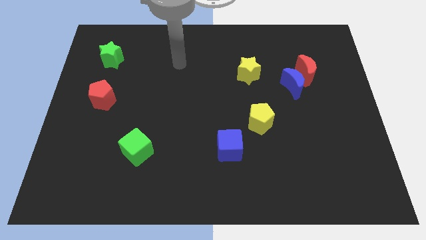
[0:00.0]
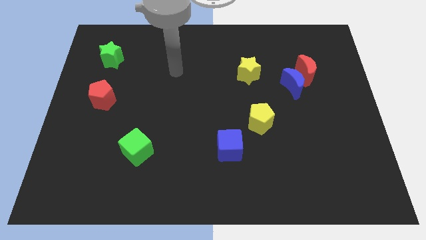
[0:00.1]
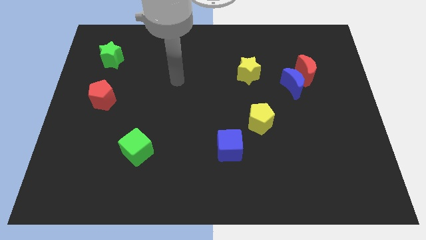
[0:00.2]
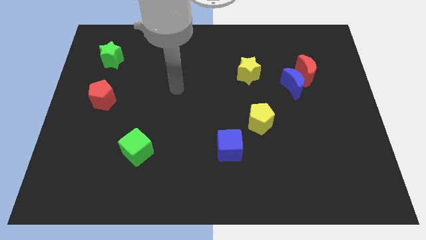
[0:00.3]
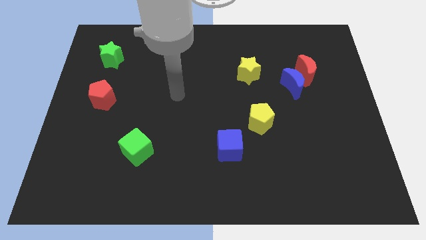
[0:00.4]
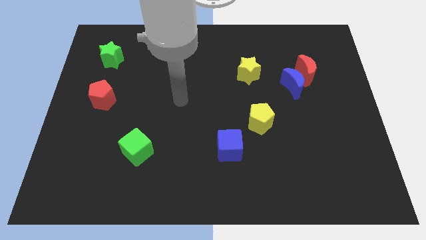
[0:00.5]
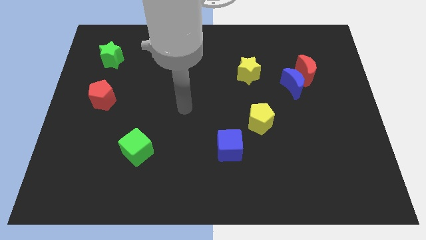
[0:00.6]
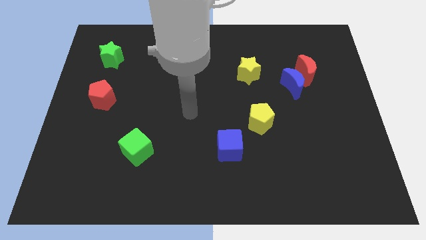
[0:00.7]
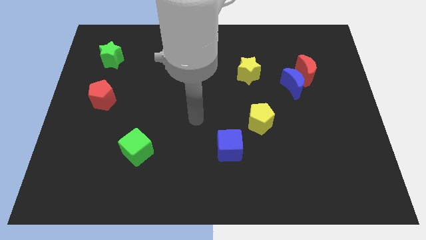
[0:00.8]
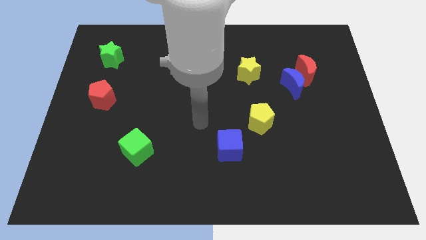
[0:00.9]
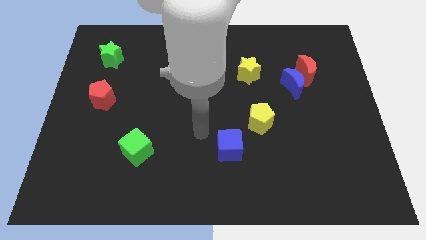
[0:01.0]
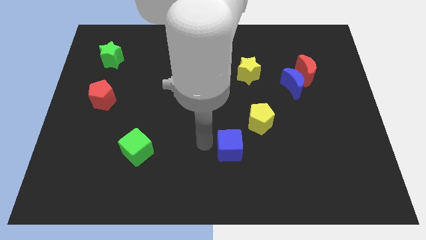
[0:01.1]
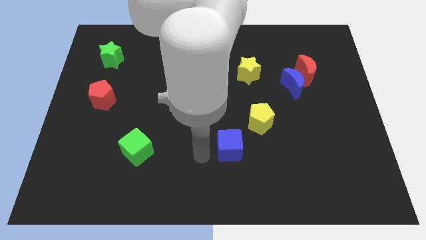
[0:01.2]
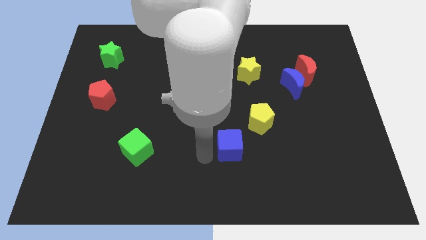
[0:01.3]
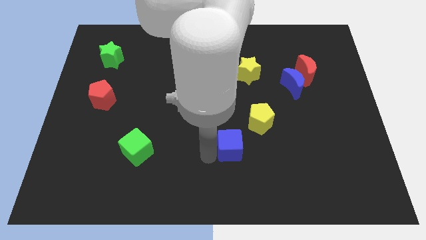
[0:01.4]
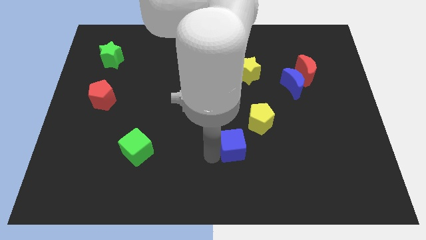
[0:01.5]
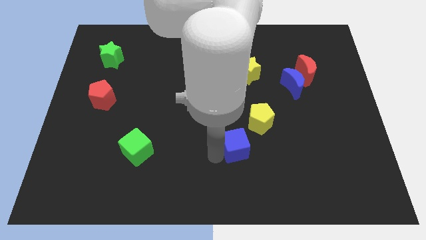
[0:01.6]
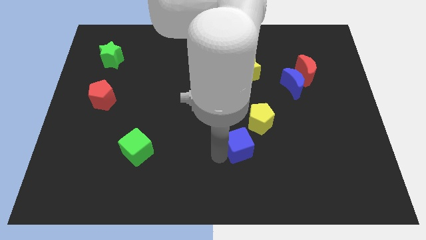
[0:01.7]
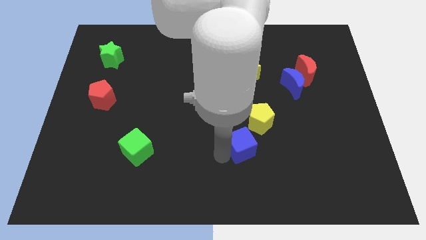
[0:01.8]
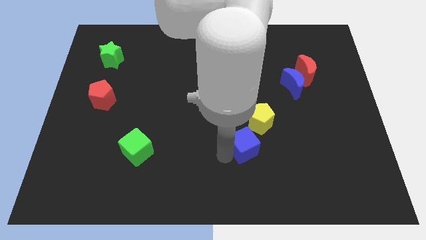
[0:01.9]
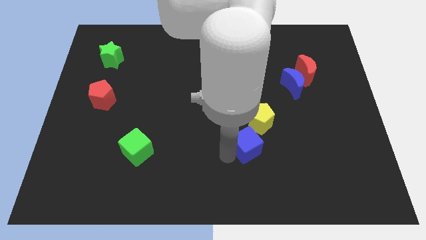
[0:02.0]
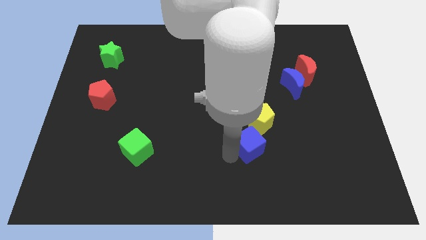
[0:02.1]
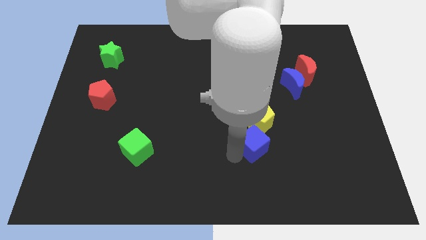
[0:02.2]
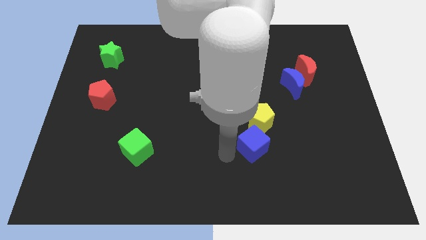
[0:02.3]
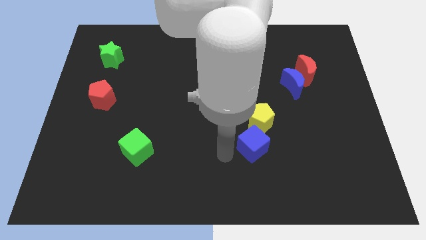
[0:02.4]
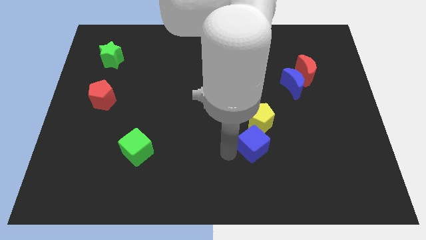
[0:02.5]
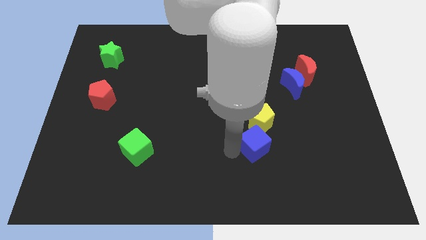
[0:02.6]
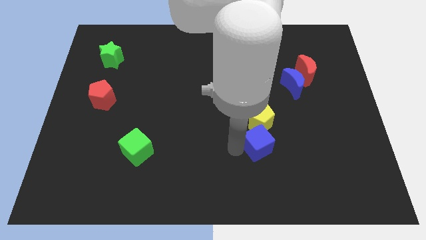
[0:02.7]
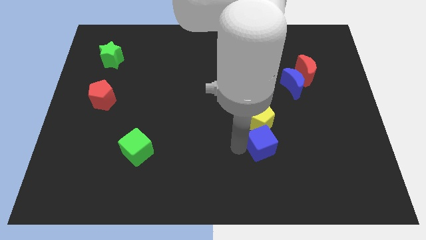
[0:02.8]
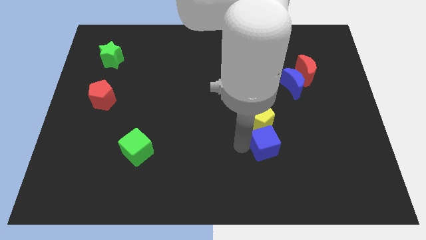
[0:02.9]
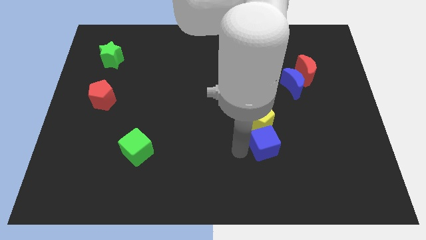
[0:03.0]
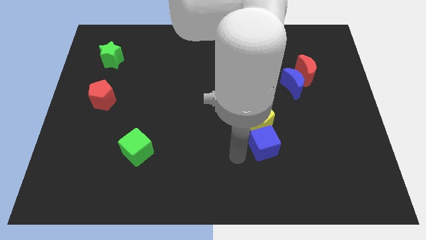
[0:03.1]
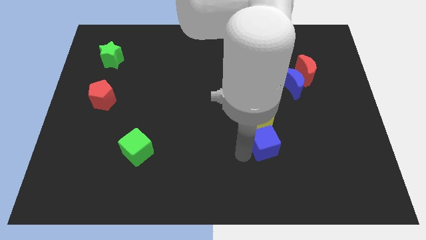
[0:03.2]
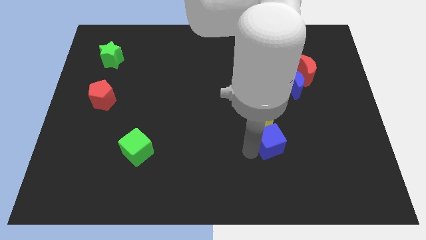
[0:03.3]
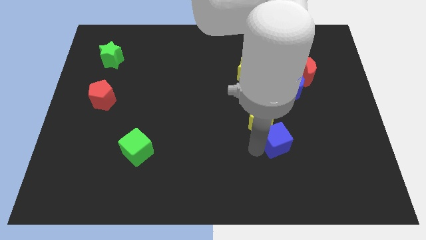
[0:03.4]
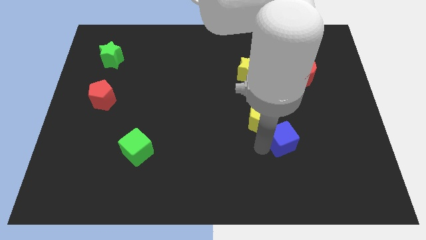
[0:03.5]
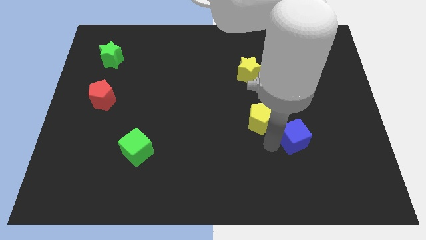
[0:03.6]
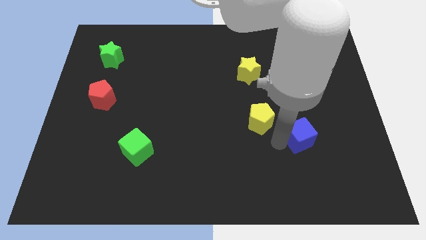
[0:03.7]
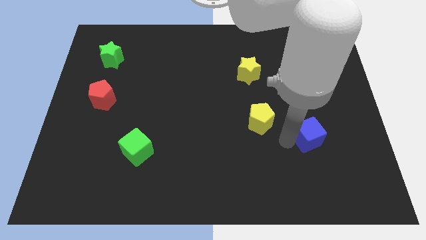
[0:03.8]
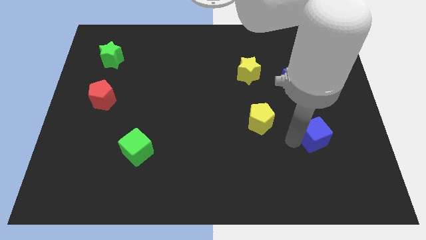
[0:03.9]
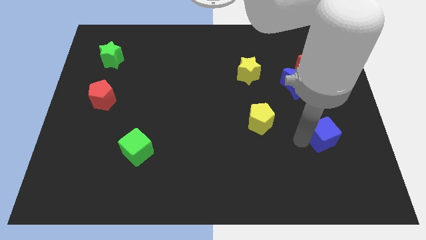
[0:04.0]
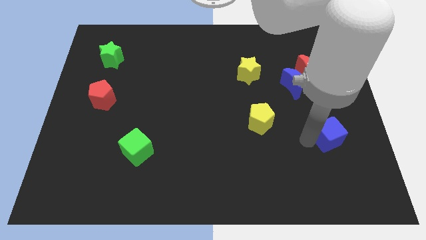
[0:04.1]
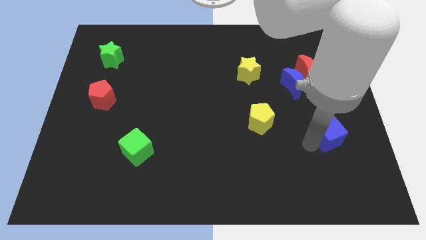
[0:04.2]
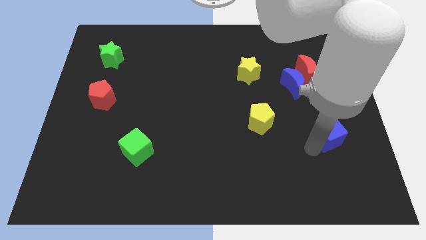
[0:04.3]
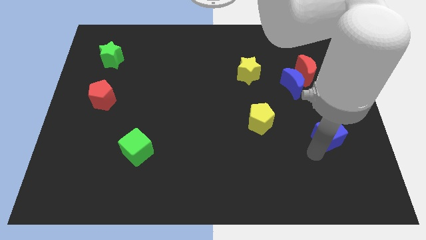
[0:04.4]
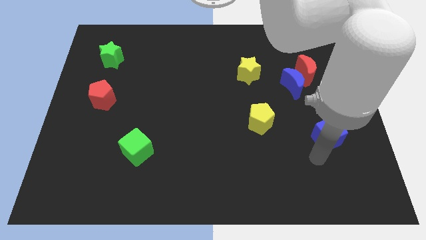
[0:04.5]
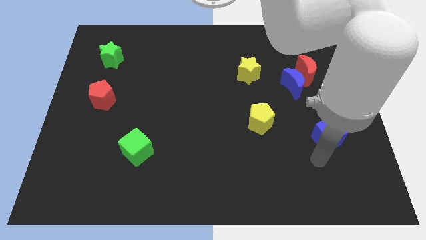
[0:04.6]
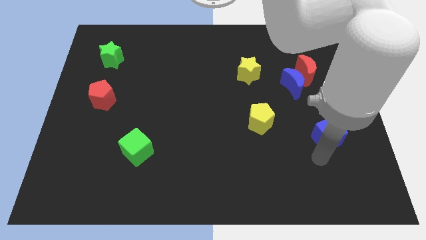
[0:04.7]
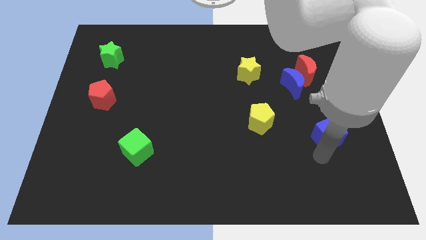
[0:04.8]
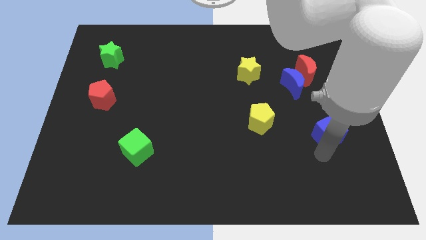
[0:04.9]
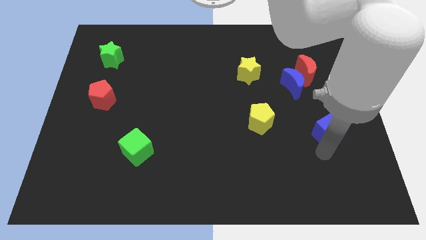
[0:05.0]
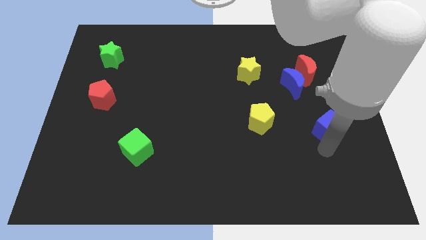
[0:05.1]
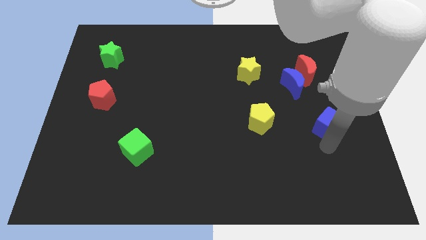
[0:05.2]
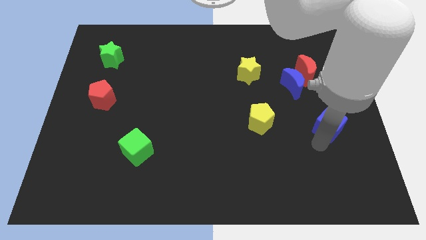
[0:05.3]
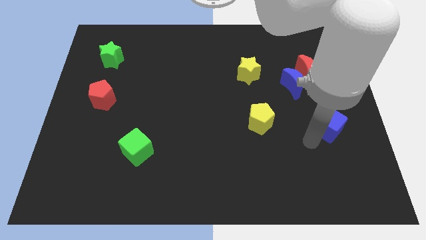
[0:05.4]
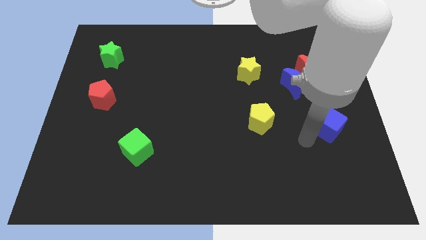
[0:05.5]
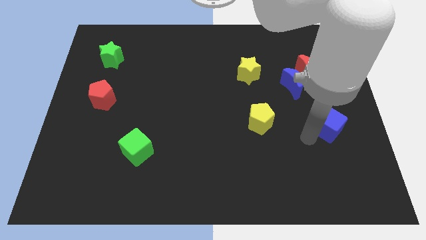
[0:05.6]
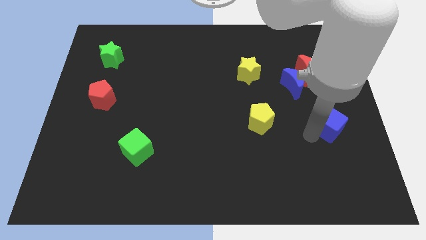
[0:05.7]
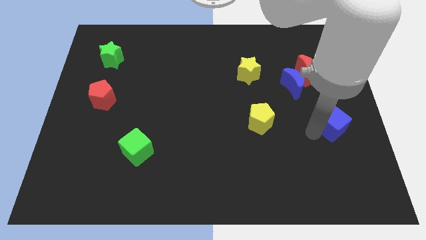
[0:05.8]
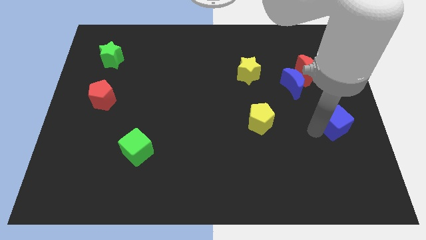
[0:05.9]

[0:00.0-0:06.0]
push the blue cube to the center right

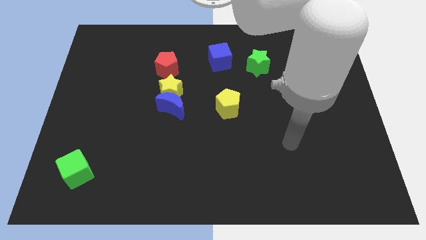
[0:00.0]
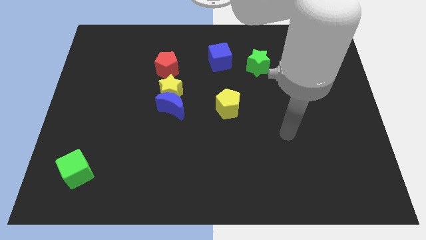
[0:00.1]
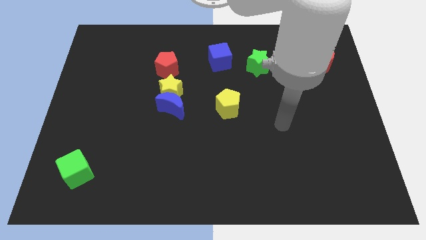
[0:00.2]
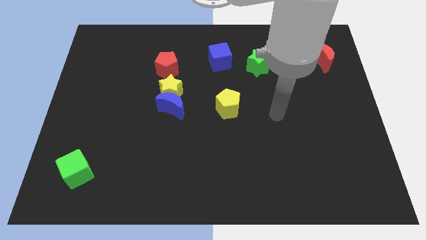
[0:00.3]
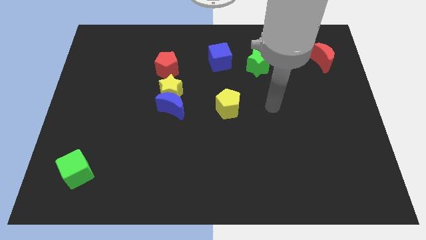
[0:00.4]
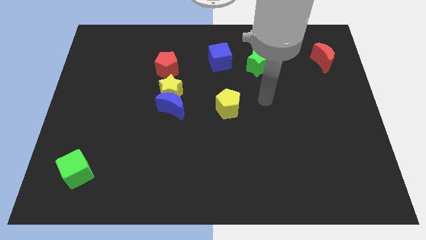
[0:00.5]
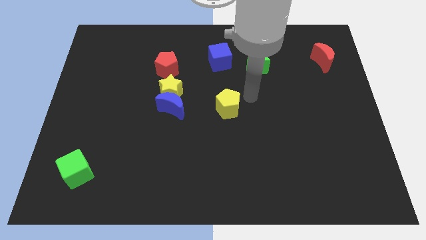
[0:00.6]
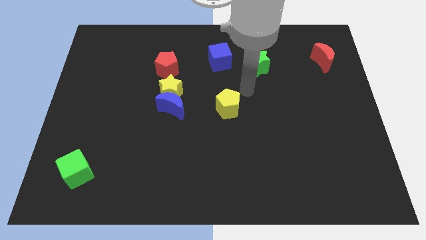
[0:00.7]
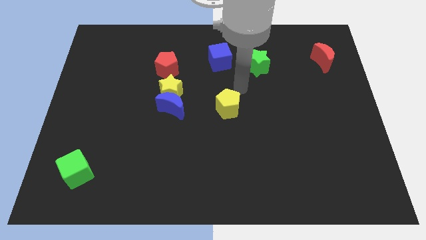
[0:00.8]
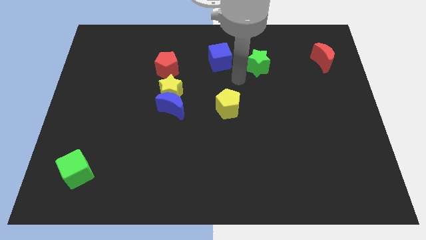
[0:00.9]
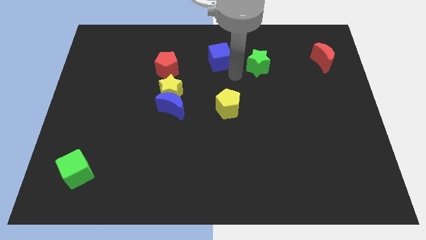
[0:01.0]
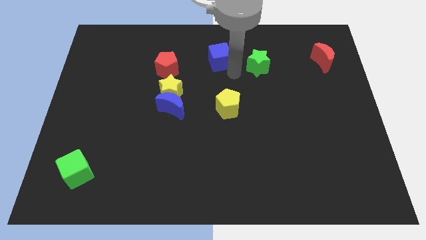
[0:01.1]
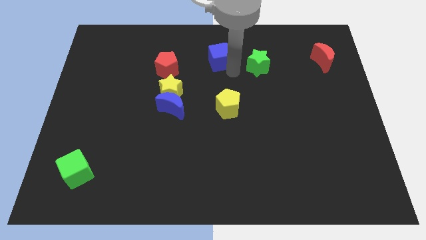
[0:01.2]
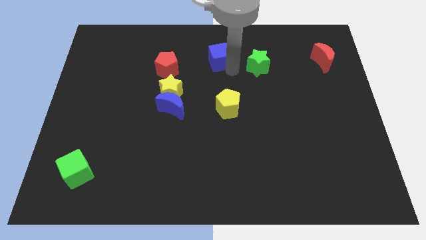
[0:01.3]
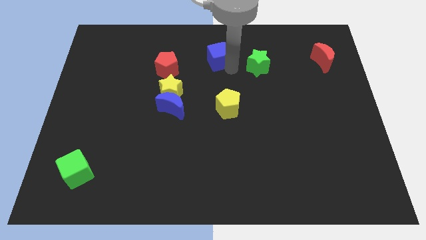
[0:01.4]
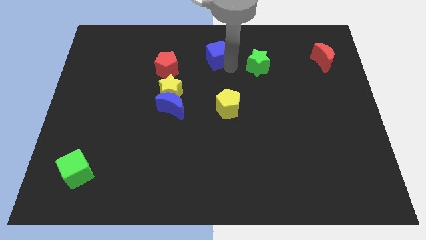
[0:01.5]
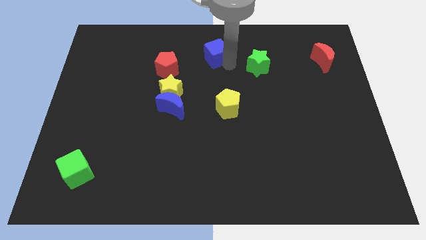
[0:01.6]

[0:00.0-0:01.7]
put the blue cube to the towards your base
